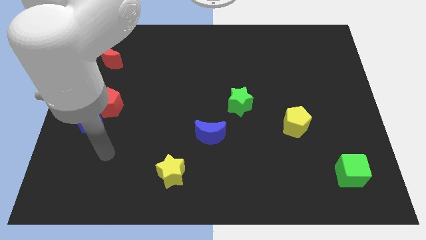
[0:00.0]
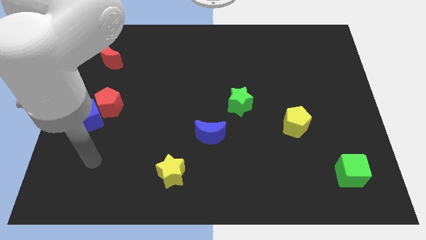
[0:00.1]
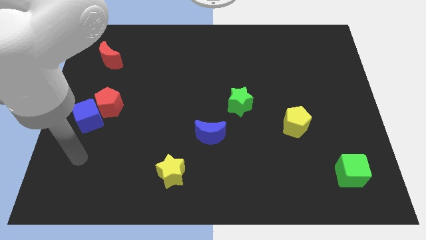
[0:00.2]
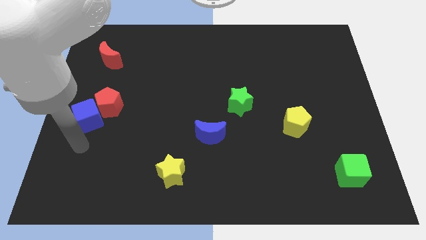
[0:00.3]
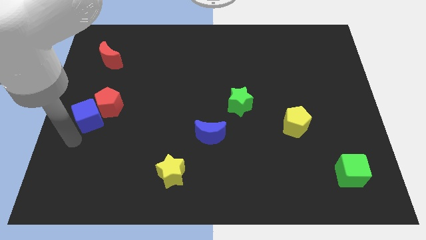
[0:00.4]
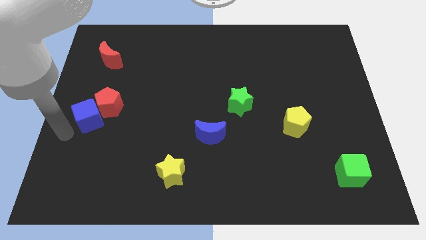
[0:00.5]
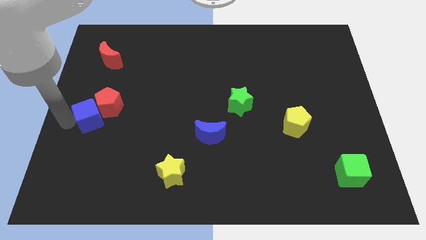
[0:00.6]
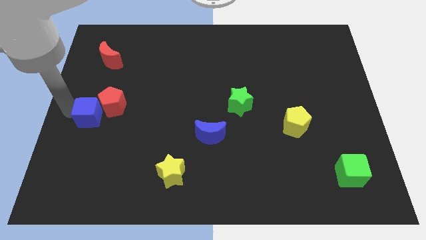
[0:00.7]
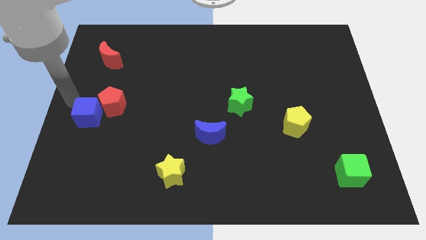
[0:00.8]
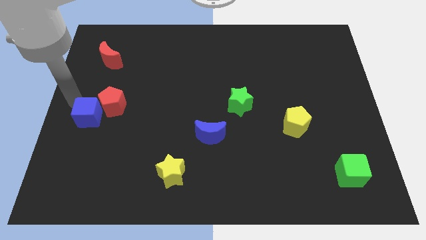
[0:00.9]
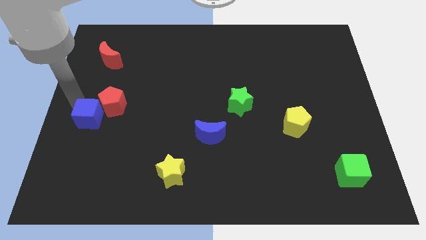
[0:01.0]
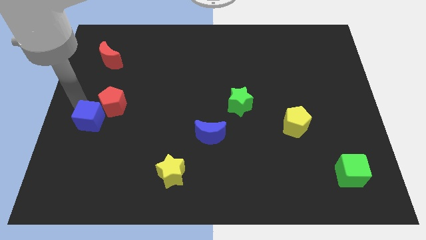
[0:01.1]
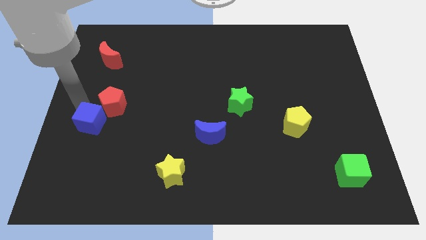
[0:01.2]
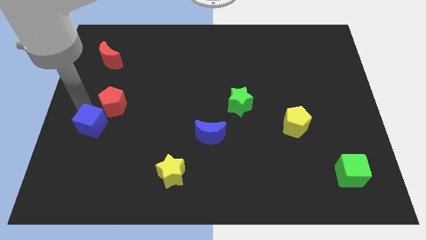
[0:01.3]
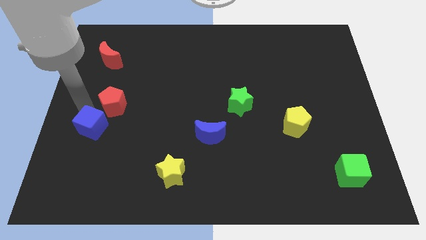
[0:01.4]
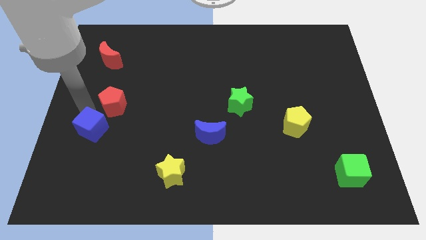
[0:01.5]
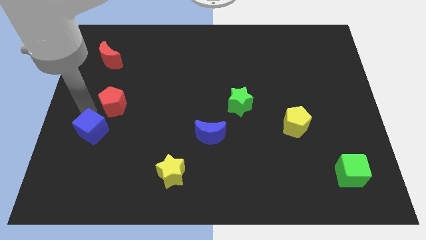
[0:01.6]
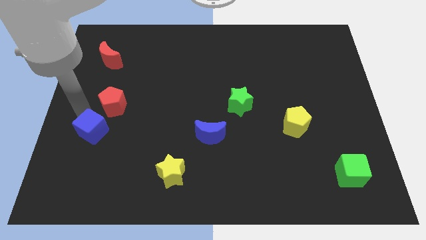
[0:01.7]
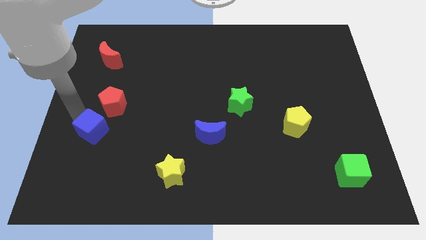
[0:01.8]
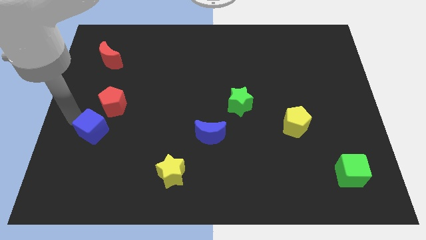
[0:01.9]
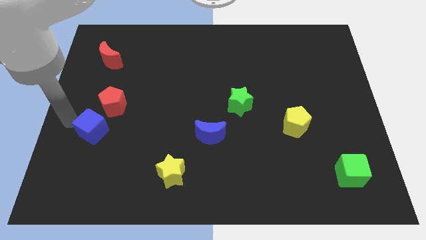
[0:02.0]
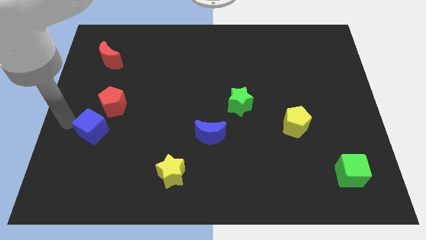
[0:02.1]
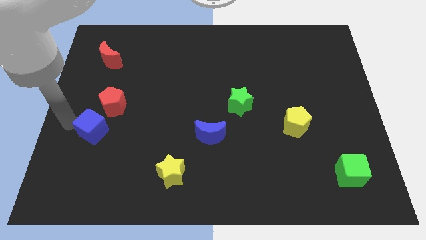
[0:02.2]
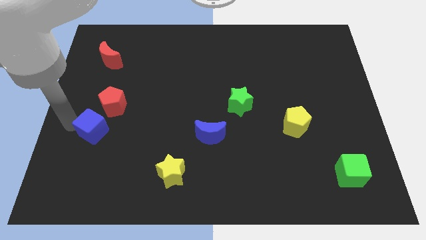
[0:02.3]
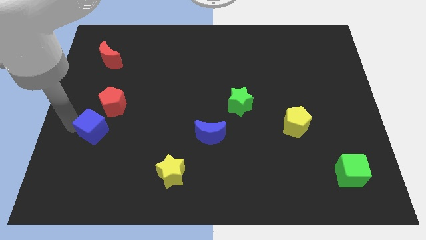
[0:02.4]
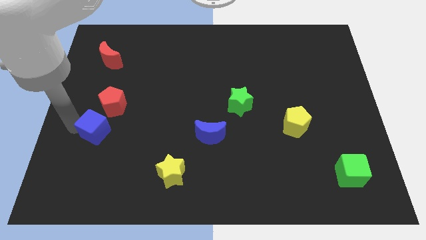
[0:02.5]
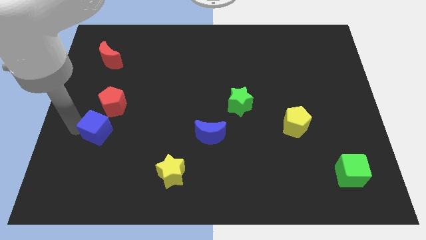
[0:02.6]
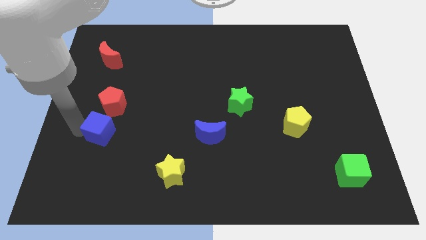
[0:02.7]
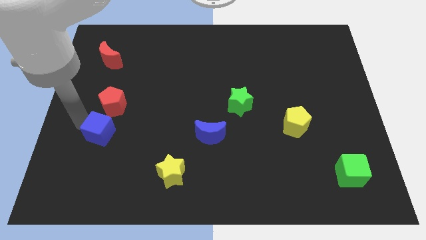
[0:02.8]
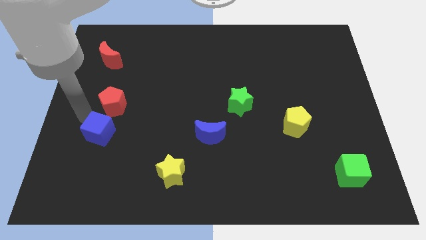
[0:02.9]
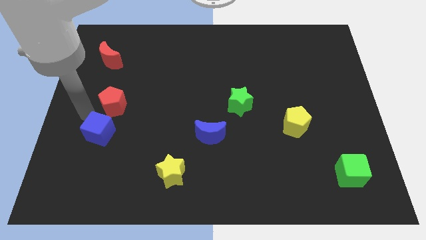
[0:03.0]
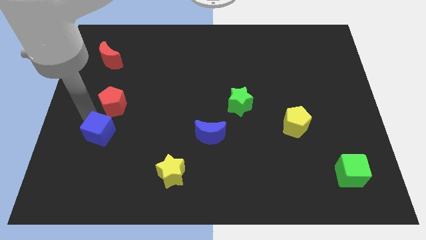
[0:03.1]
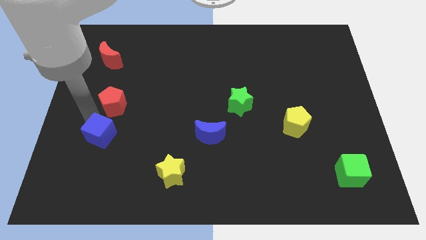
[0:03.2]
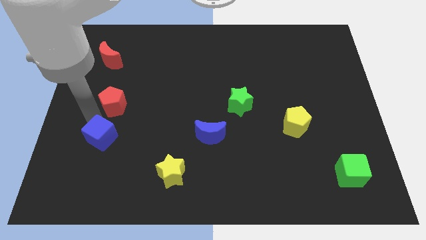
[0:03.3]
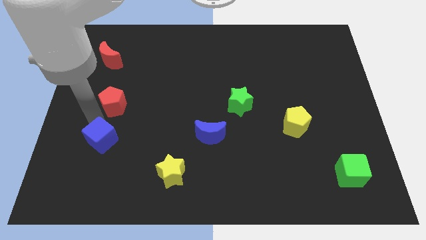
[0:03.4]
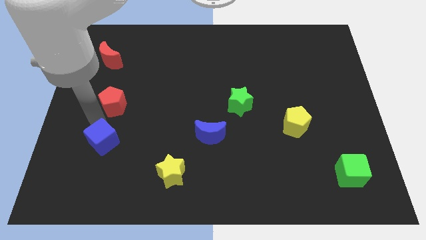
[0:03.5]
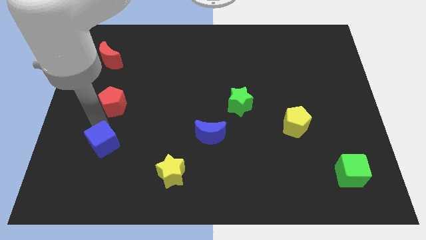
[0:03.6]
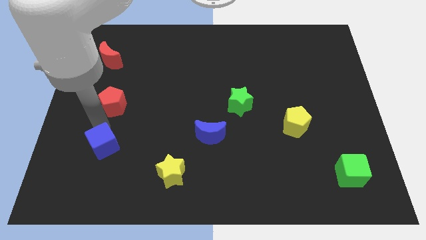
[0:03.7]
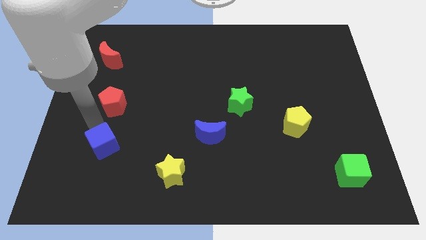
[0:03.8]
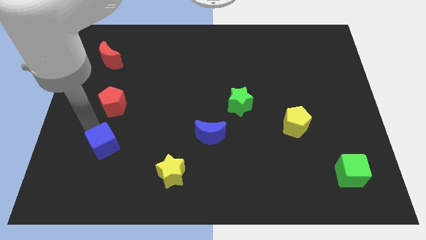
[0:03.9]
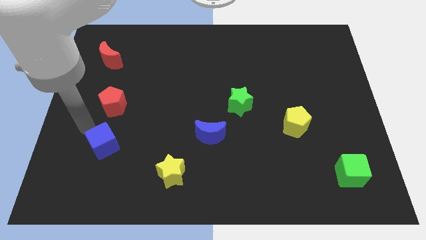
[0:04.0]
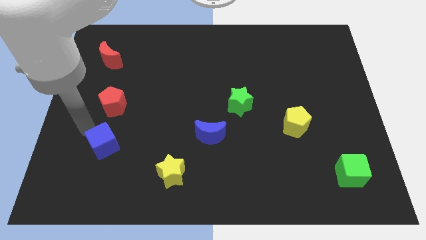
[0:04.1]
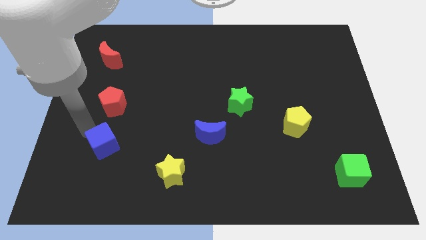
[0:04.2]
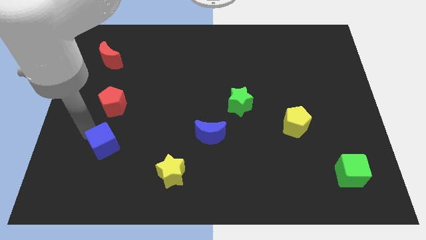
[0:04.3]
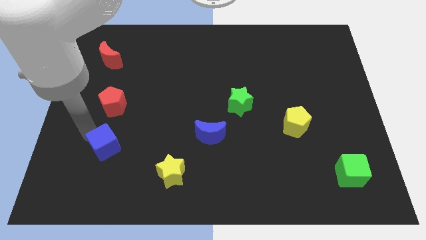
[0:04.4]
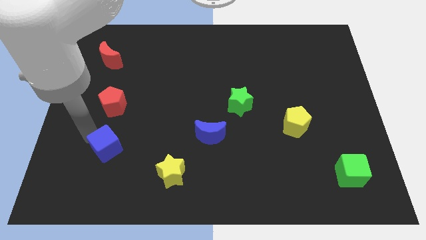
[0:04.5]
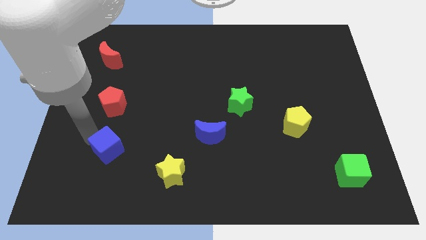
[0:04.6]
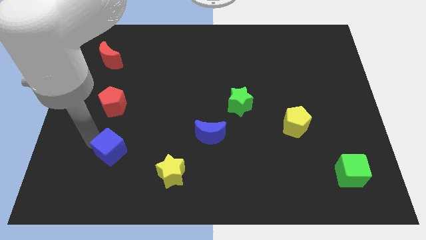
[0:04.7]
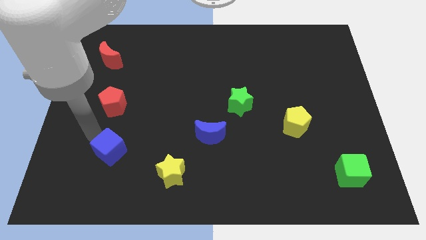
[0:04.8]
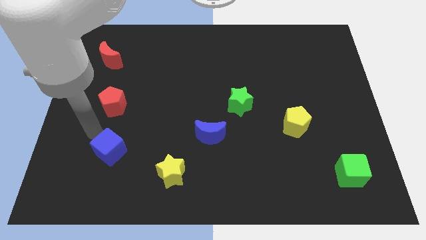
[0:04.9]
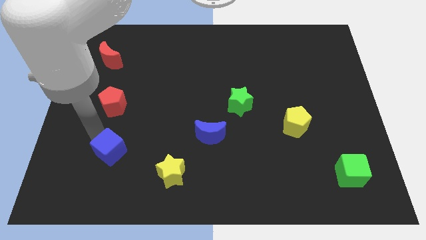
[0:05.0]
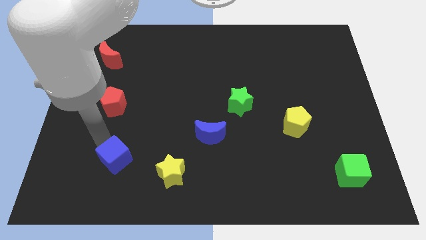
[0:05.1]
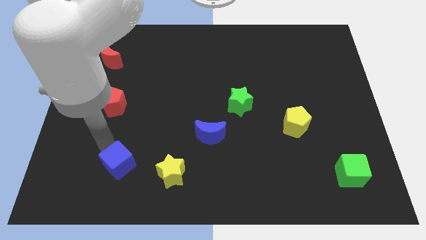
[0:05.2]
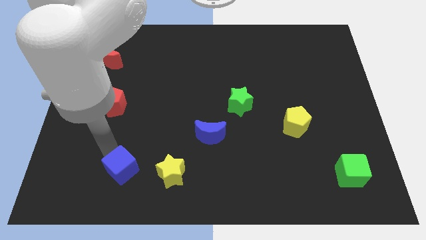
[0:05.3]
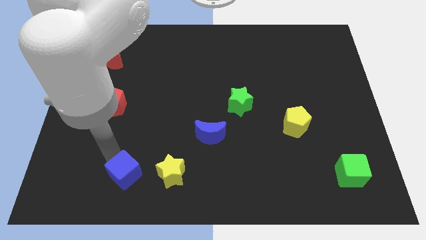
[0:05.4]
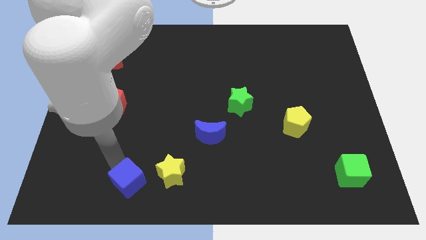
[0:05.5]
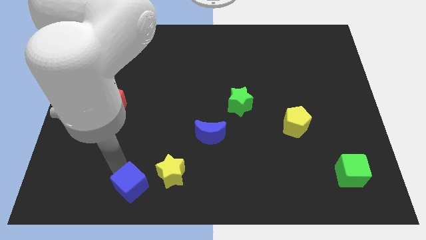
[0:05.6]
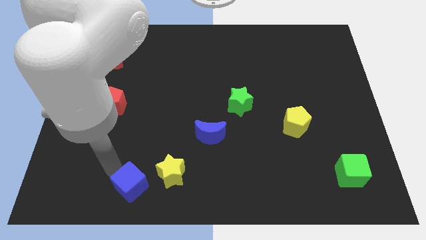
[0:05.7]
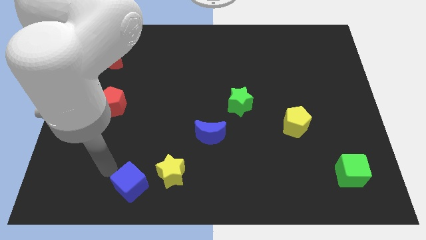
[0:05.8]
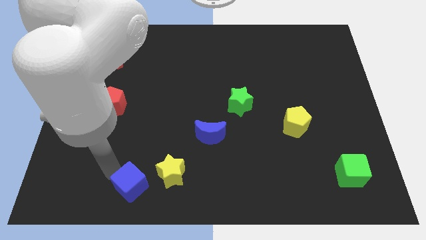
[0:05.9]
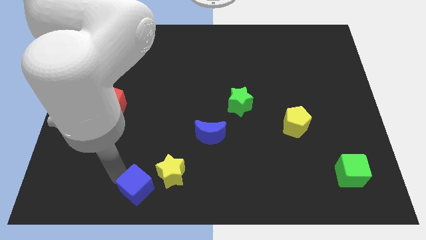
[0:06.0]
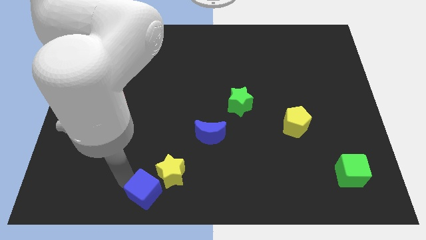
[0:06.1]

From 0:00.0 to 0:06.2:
slide the blue cube to the bottom side
